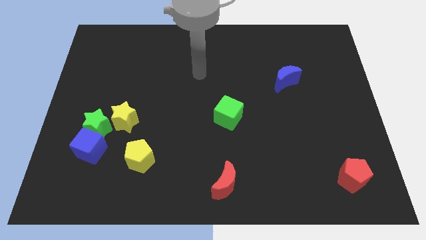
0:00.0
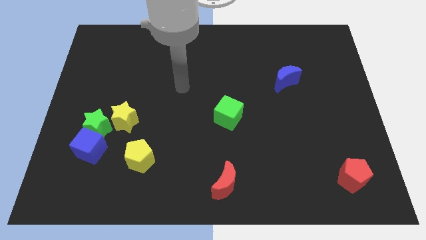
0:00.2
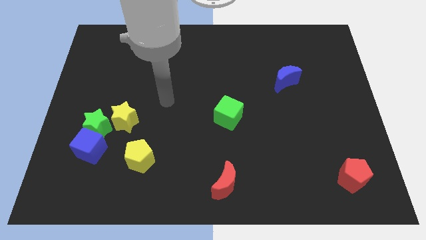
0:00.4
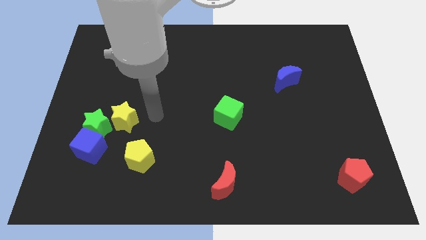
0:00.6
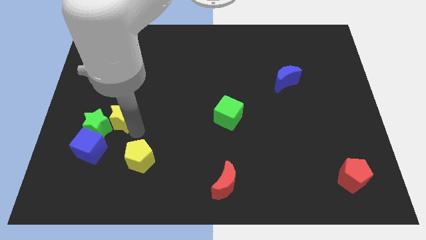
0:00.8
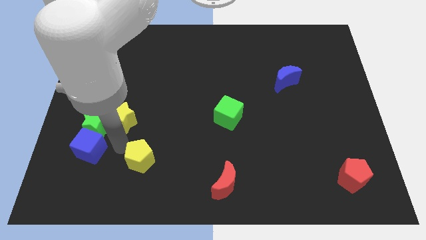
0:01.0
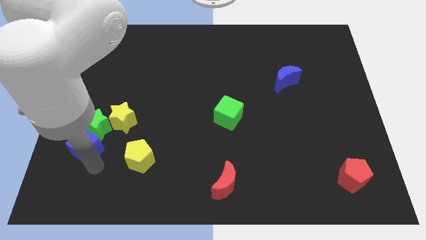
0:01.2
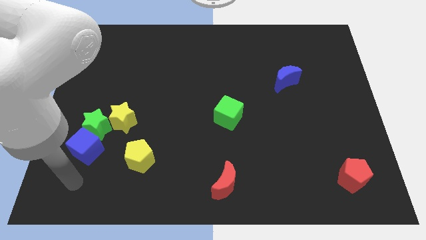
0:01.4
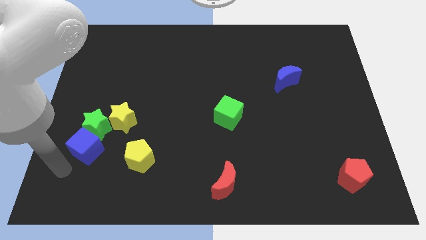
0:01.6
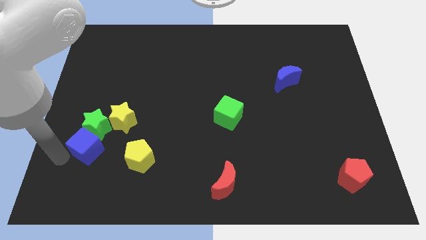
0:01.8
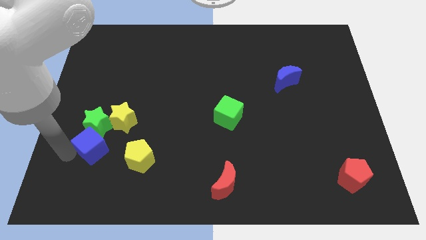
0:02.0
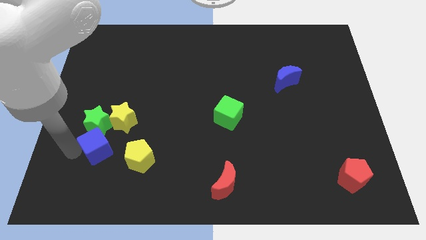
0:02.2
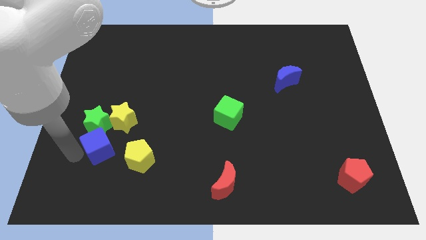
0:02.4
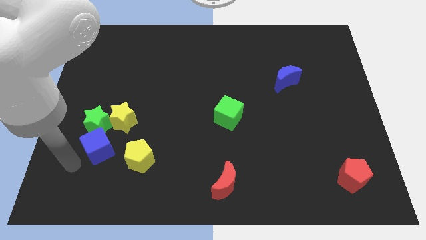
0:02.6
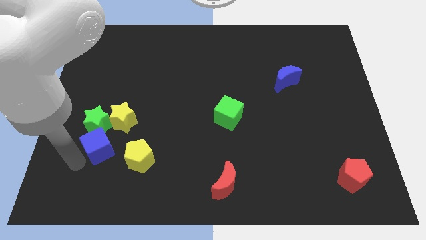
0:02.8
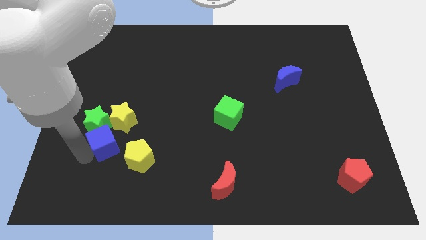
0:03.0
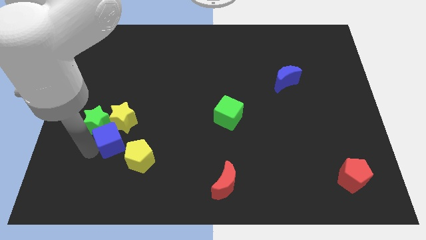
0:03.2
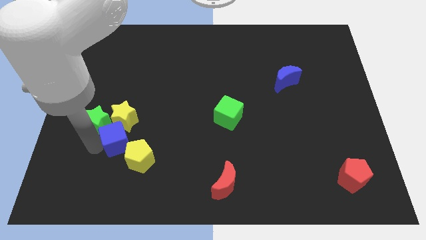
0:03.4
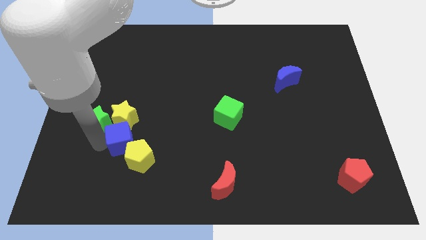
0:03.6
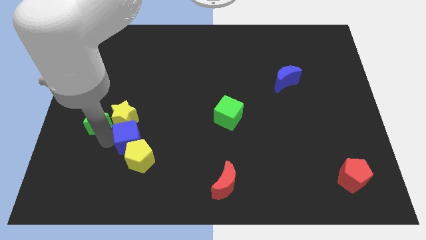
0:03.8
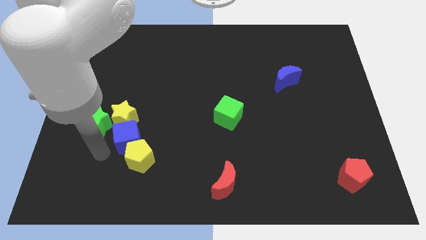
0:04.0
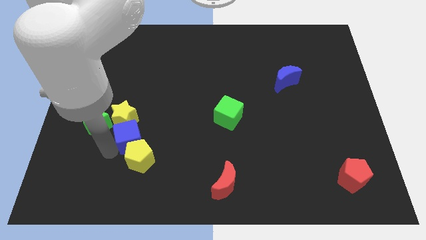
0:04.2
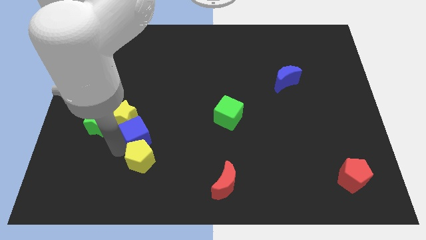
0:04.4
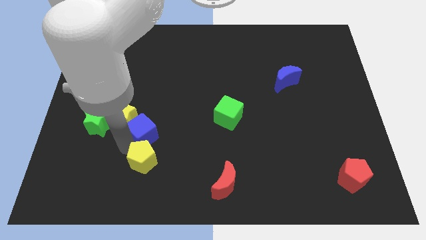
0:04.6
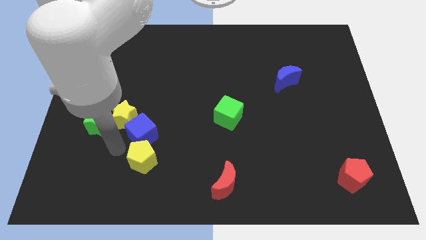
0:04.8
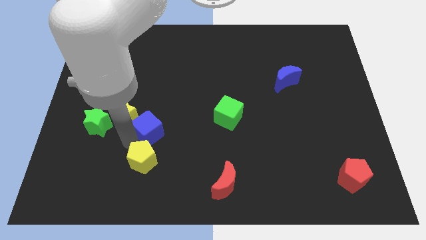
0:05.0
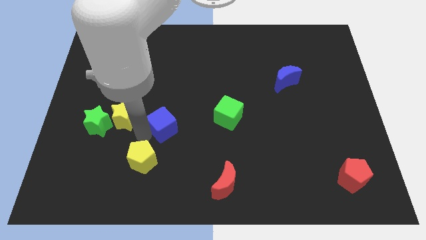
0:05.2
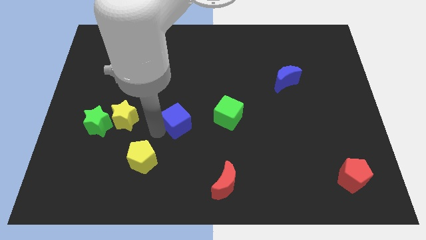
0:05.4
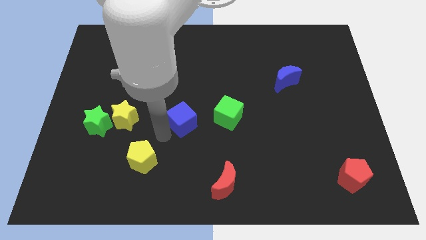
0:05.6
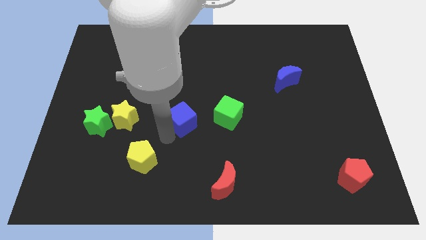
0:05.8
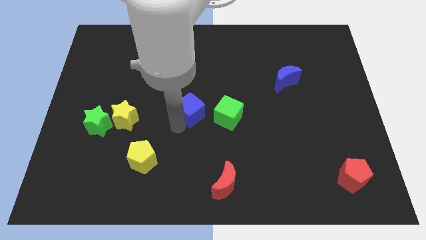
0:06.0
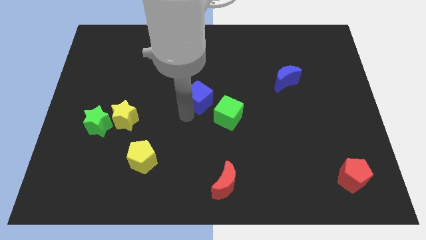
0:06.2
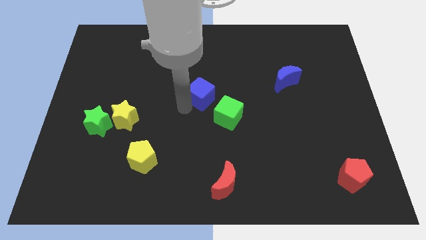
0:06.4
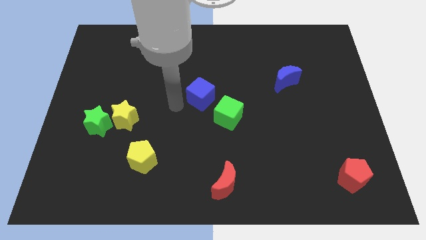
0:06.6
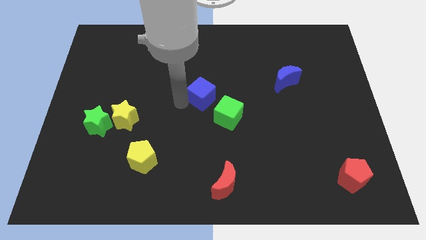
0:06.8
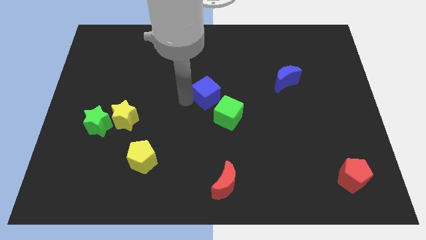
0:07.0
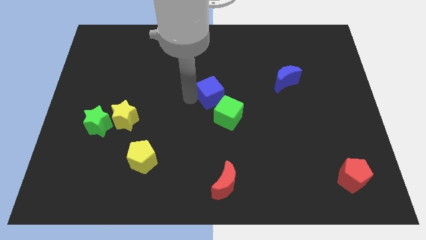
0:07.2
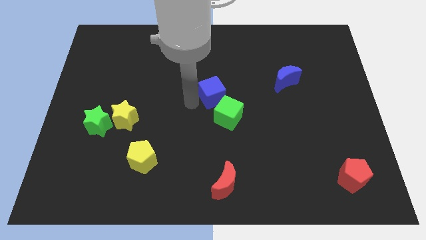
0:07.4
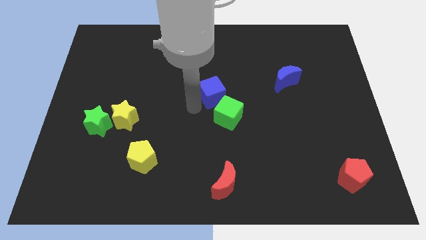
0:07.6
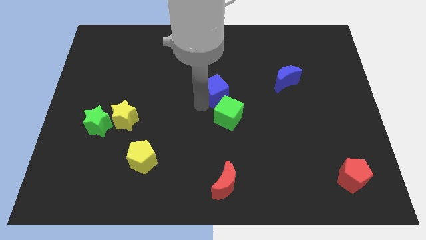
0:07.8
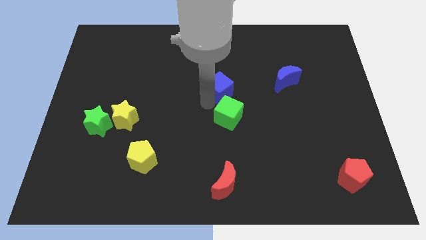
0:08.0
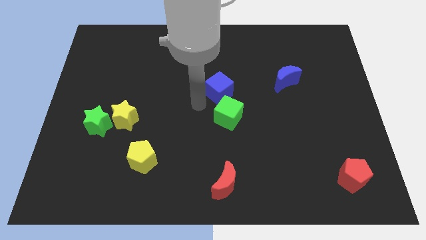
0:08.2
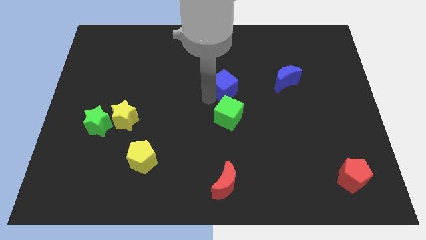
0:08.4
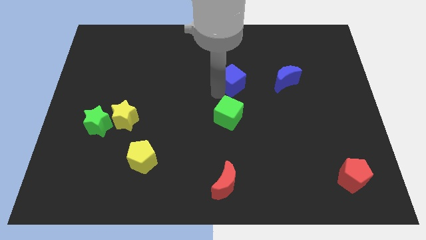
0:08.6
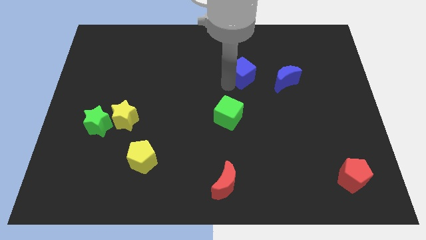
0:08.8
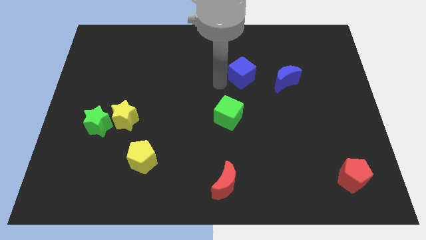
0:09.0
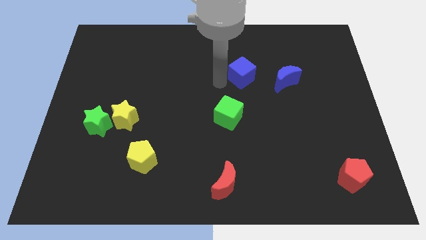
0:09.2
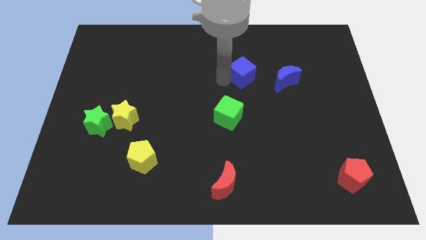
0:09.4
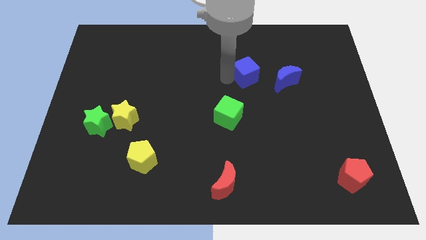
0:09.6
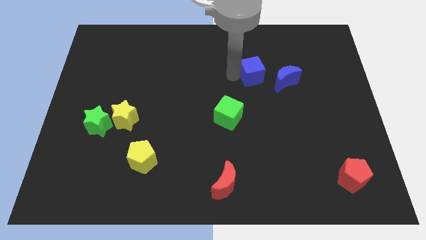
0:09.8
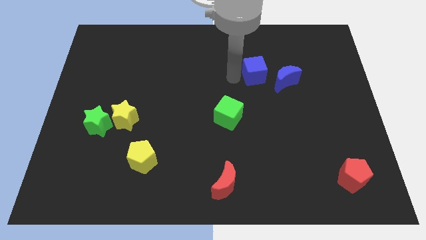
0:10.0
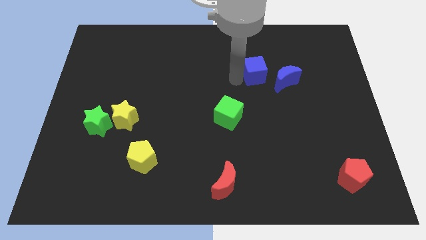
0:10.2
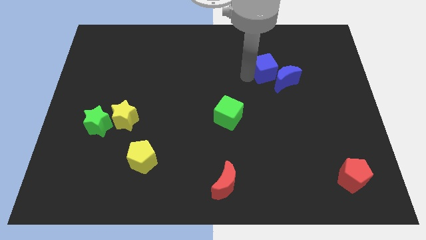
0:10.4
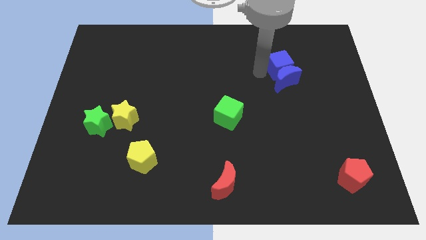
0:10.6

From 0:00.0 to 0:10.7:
move the blue cube diagonally up and to the right of the blue moon

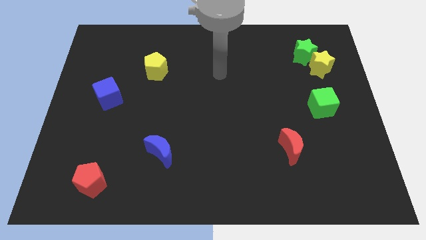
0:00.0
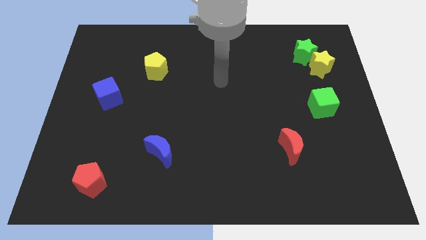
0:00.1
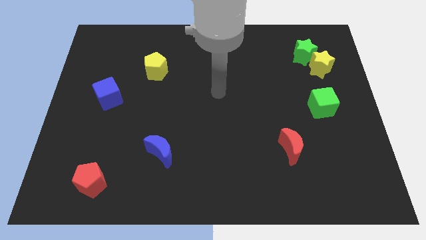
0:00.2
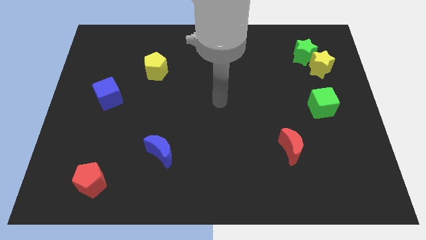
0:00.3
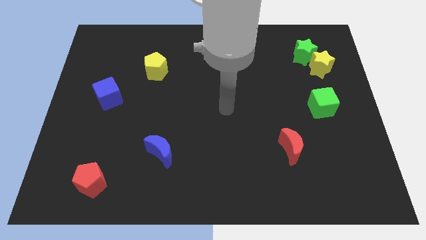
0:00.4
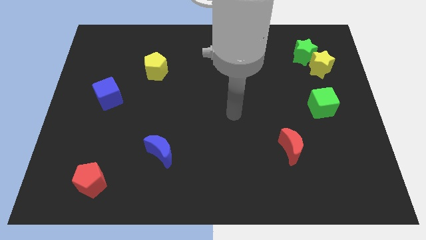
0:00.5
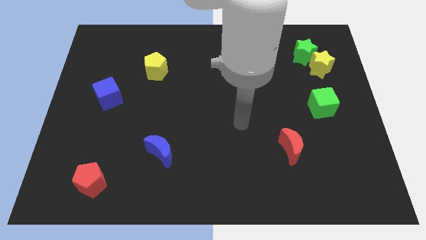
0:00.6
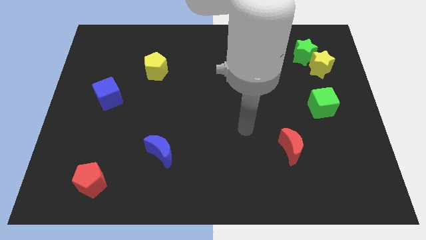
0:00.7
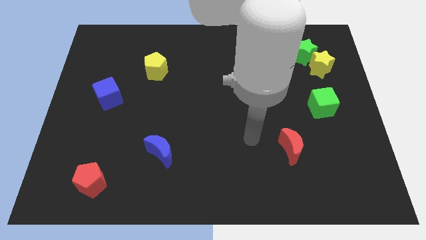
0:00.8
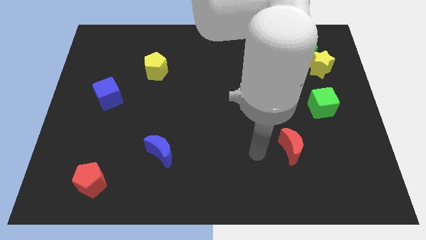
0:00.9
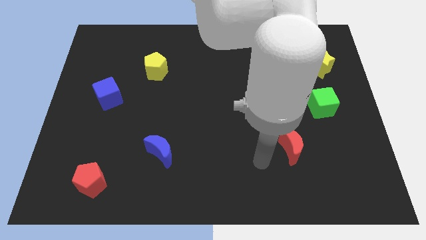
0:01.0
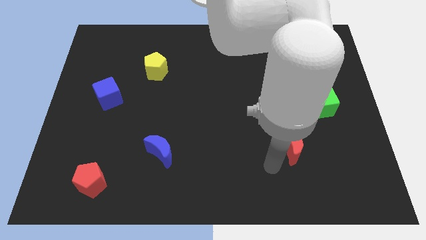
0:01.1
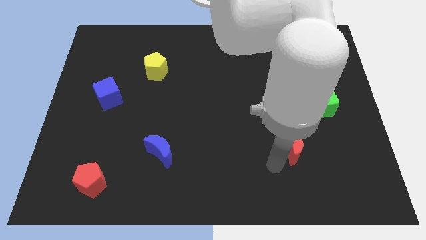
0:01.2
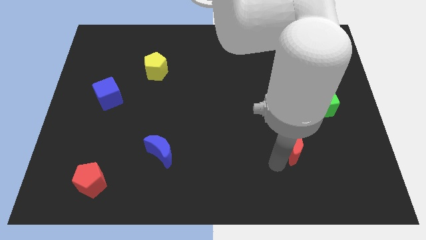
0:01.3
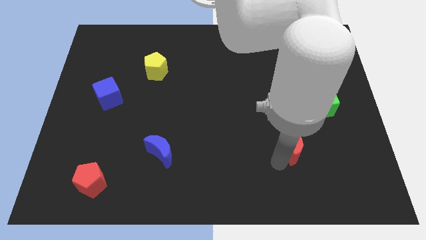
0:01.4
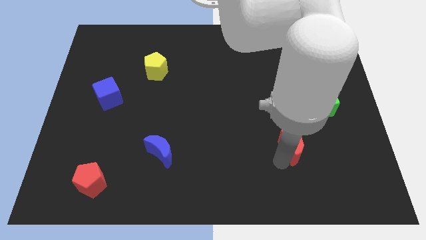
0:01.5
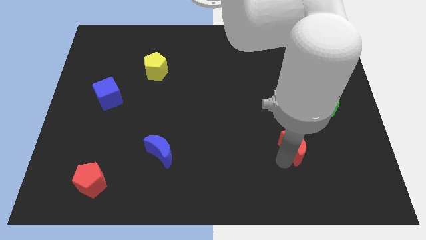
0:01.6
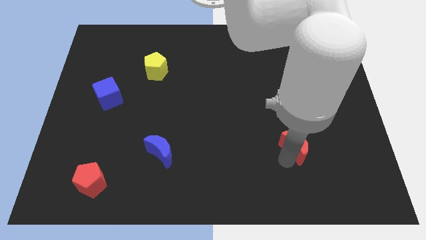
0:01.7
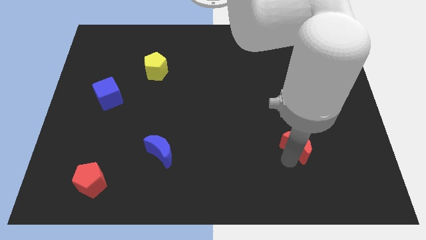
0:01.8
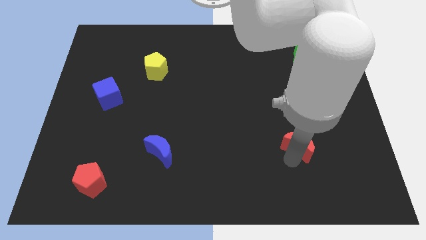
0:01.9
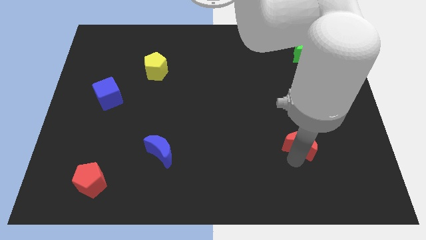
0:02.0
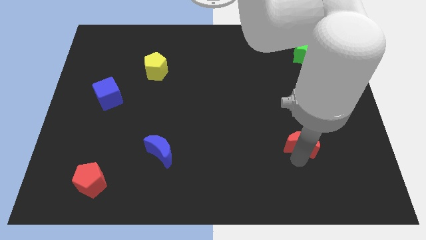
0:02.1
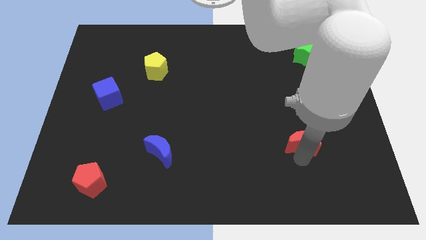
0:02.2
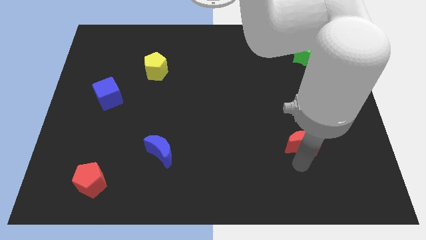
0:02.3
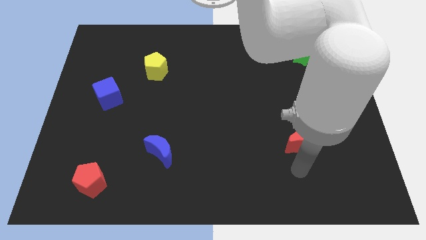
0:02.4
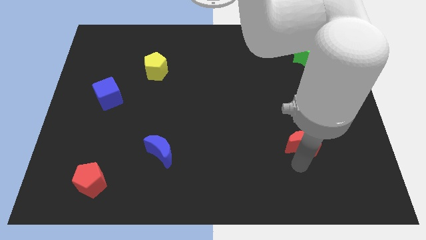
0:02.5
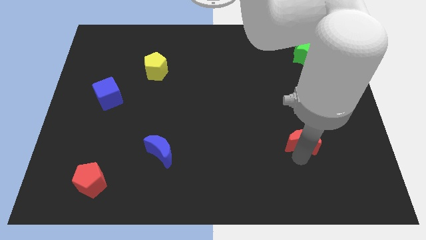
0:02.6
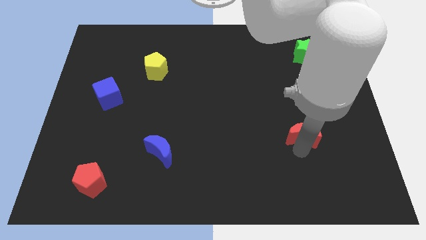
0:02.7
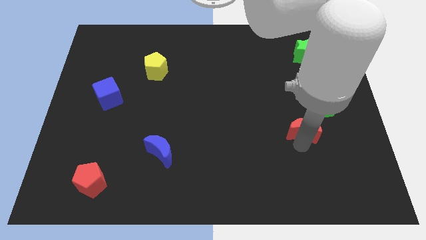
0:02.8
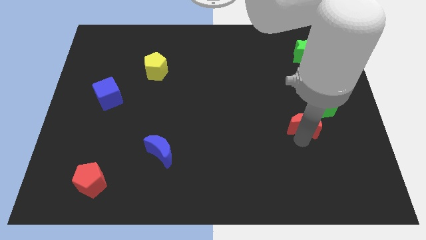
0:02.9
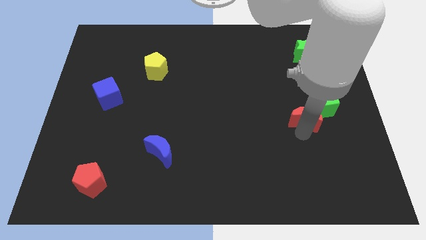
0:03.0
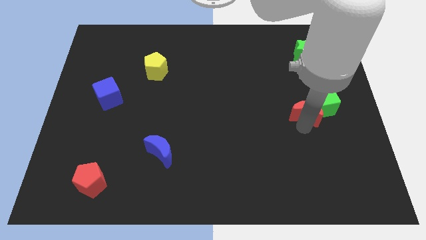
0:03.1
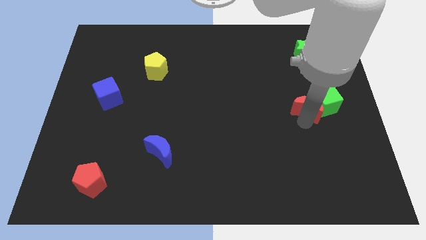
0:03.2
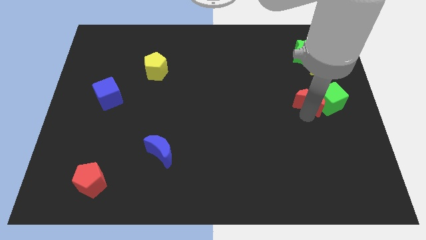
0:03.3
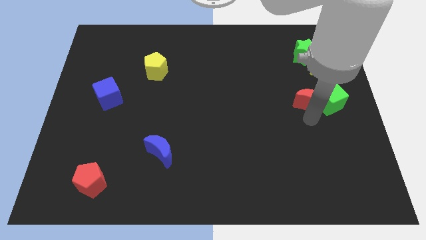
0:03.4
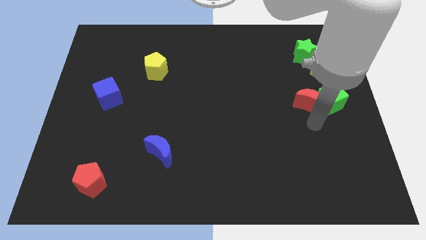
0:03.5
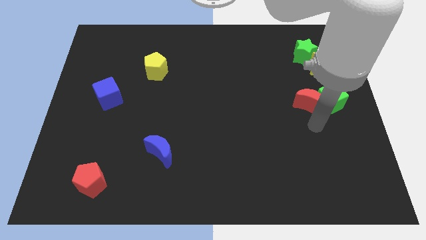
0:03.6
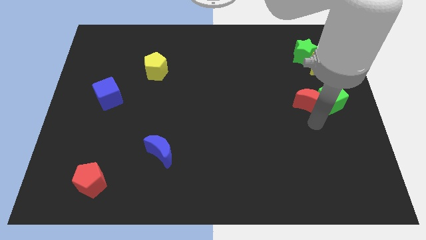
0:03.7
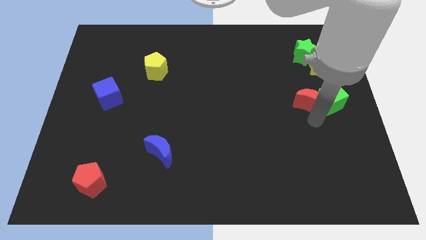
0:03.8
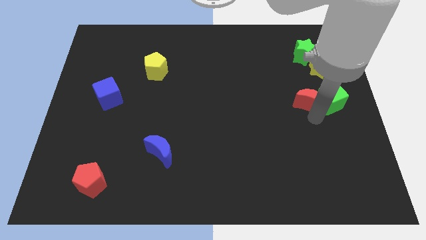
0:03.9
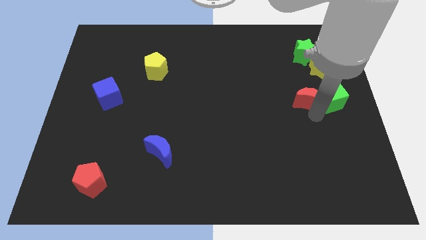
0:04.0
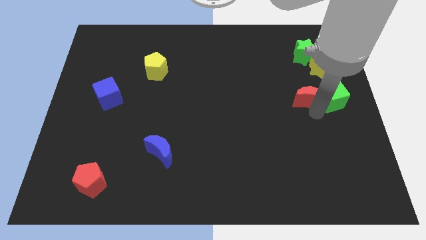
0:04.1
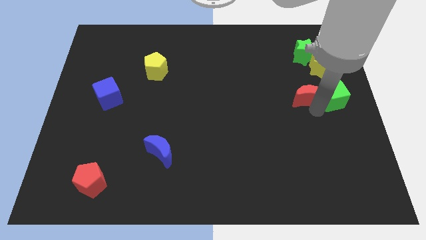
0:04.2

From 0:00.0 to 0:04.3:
put the red moon to the bottom left side of the yellow star
